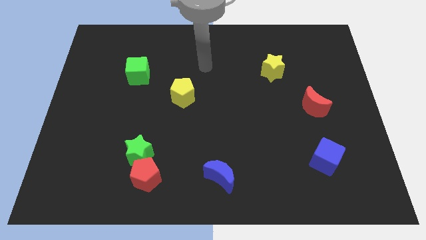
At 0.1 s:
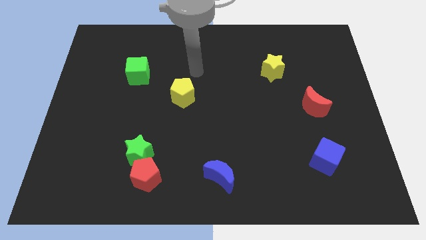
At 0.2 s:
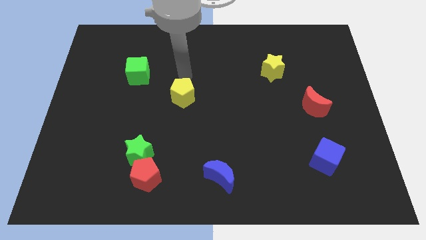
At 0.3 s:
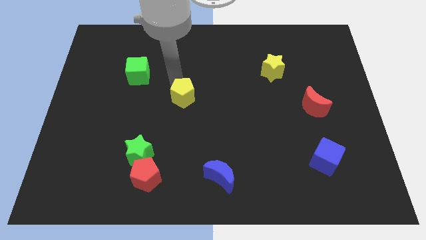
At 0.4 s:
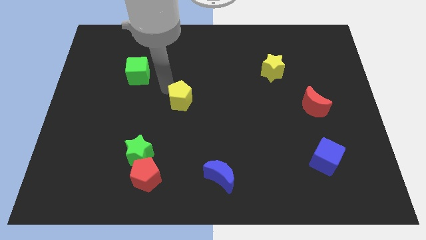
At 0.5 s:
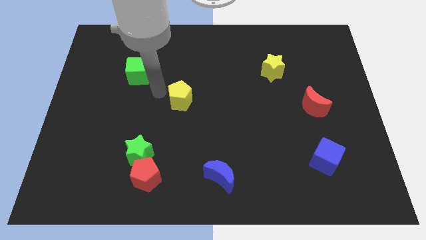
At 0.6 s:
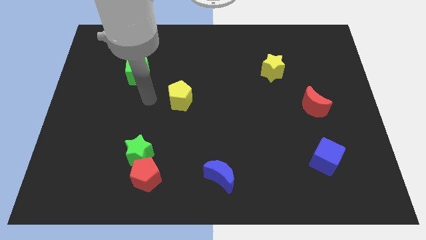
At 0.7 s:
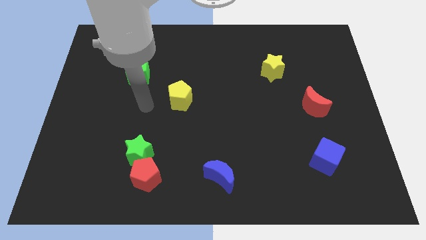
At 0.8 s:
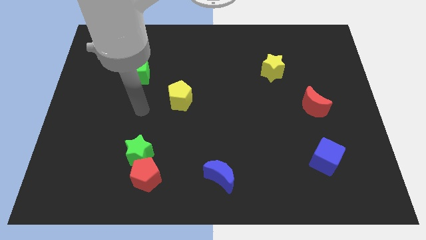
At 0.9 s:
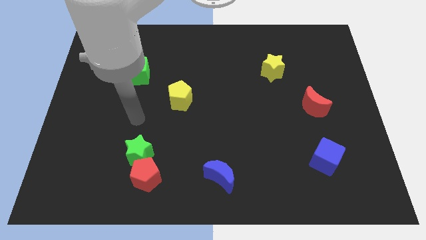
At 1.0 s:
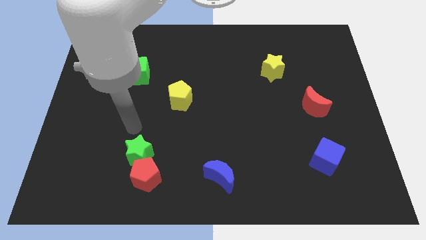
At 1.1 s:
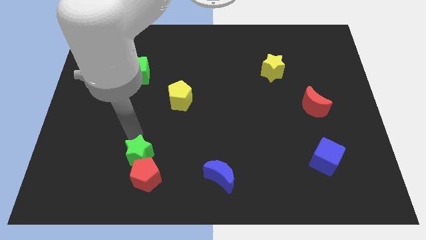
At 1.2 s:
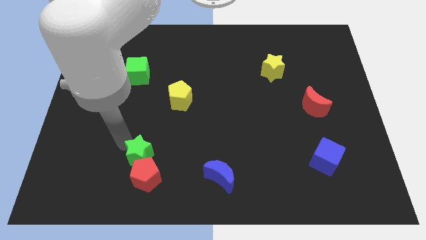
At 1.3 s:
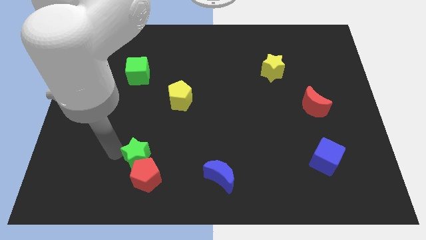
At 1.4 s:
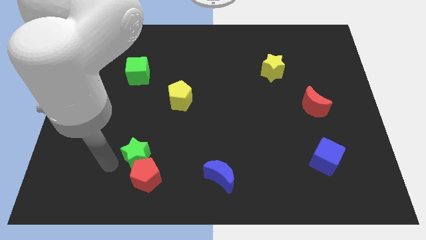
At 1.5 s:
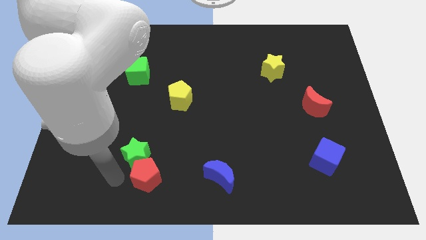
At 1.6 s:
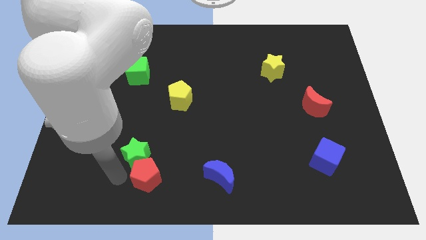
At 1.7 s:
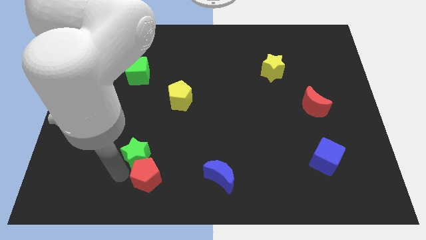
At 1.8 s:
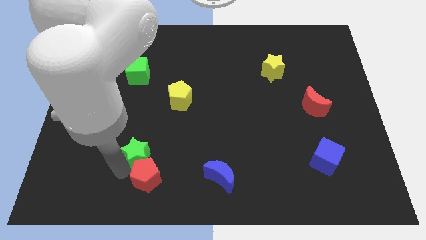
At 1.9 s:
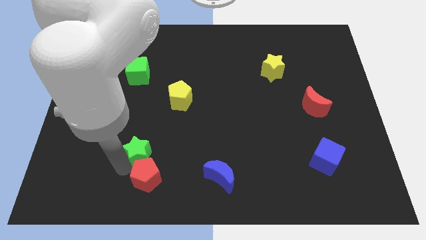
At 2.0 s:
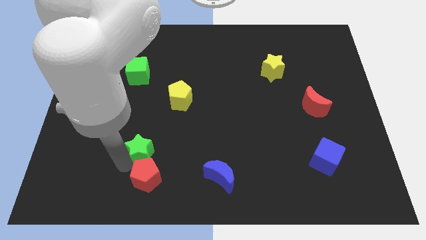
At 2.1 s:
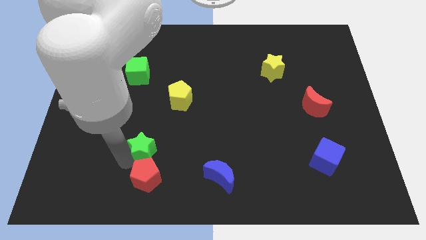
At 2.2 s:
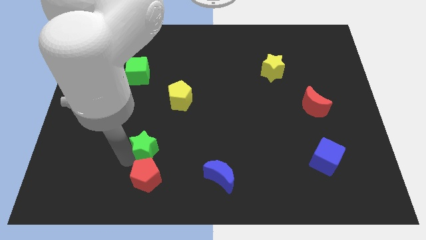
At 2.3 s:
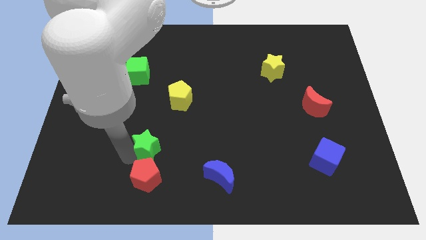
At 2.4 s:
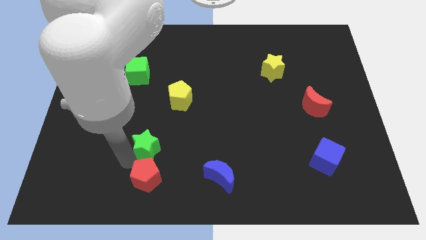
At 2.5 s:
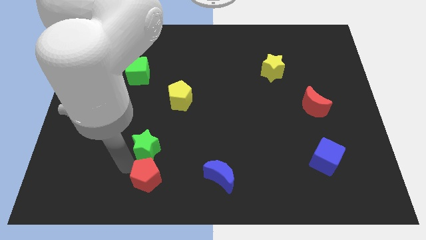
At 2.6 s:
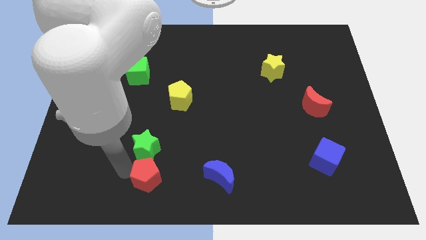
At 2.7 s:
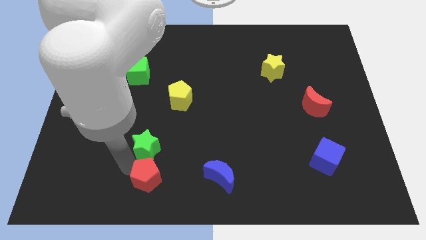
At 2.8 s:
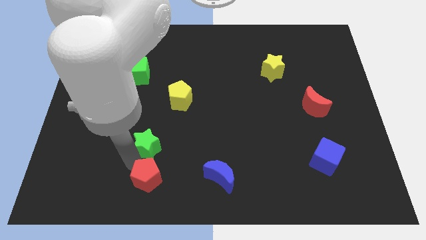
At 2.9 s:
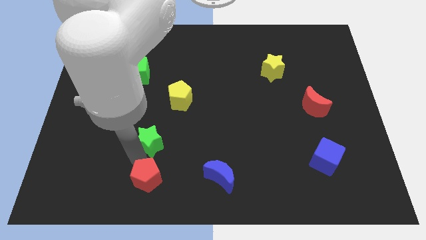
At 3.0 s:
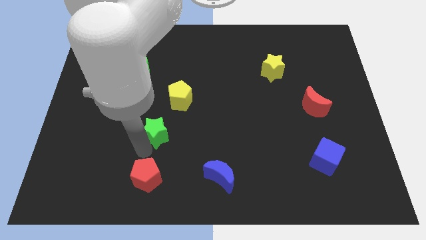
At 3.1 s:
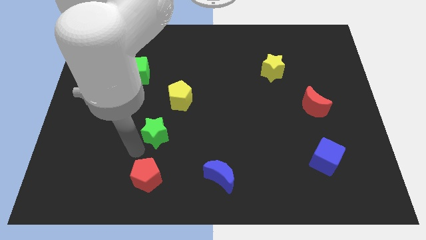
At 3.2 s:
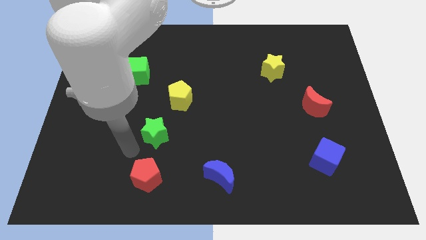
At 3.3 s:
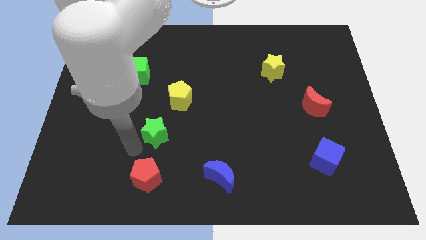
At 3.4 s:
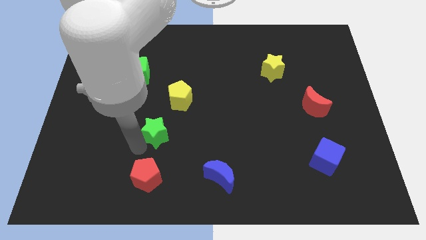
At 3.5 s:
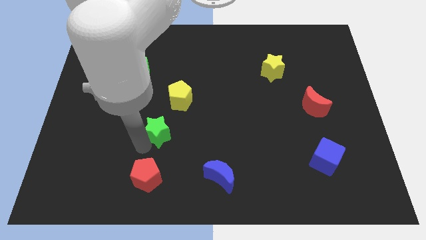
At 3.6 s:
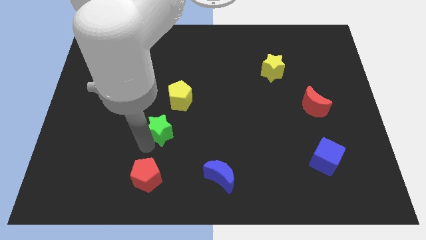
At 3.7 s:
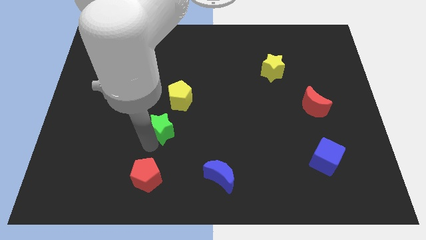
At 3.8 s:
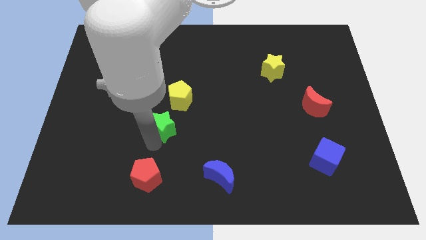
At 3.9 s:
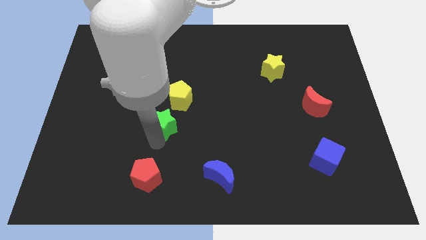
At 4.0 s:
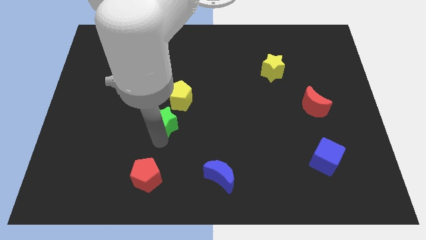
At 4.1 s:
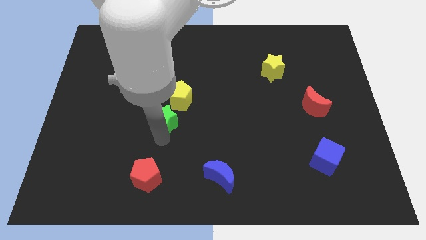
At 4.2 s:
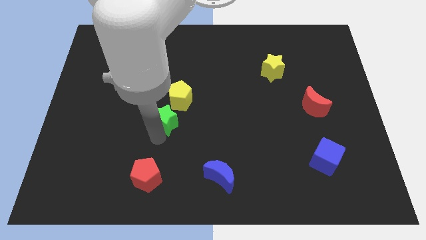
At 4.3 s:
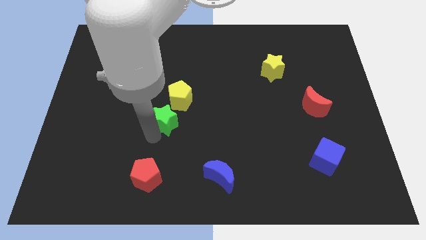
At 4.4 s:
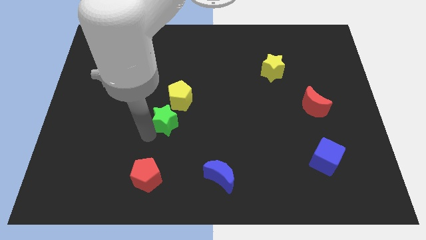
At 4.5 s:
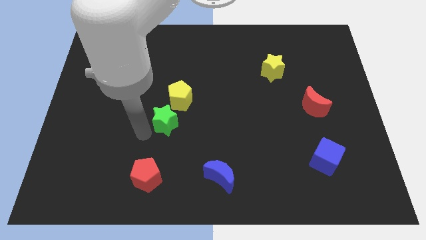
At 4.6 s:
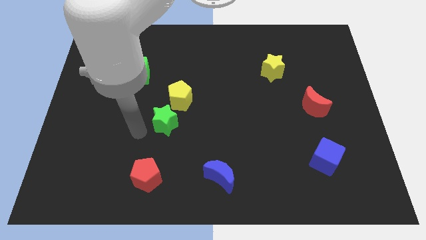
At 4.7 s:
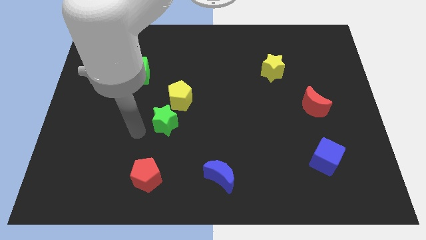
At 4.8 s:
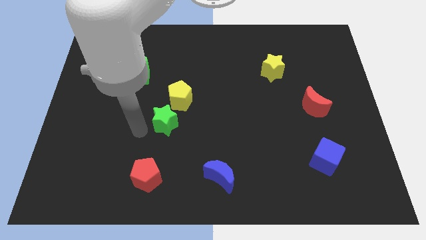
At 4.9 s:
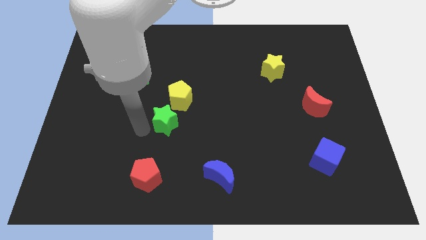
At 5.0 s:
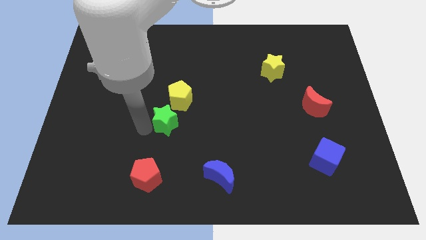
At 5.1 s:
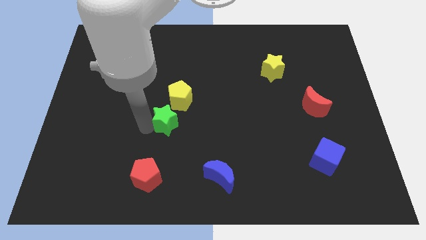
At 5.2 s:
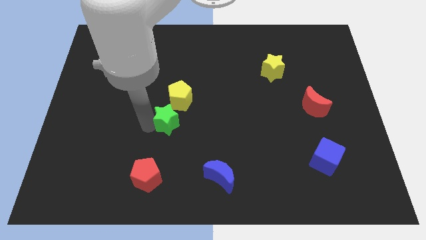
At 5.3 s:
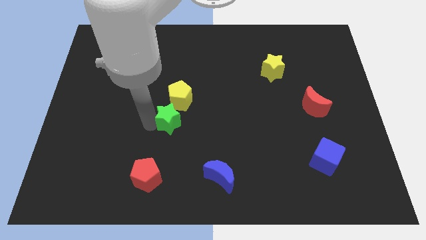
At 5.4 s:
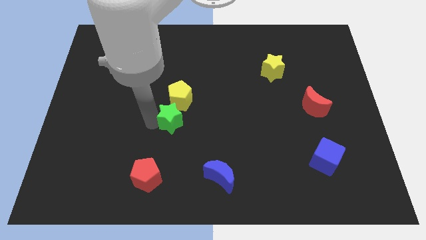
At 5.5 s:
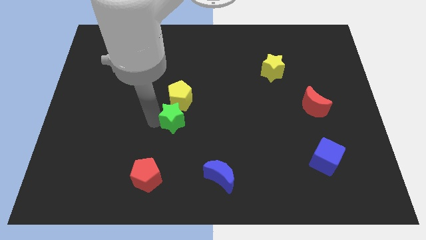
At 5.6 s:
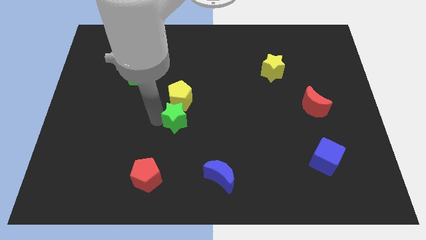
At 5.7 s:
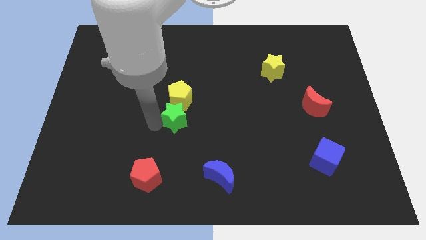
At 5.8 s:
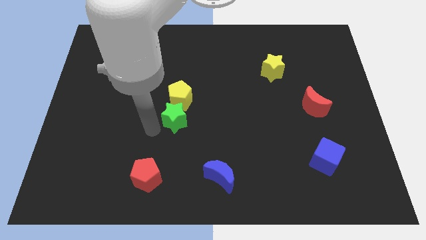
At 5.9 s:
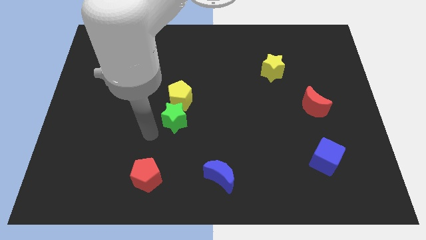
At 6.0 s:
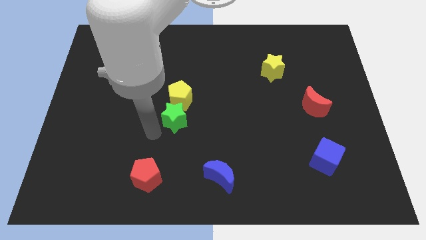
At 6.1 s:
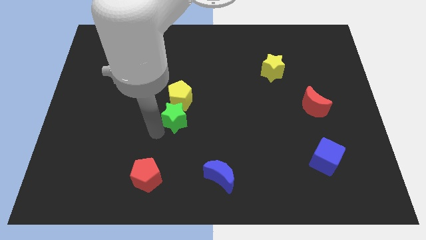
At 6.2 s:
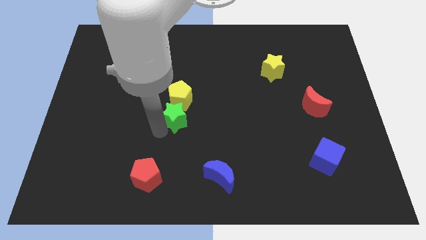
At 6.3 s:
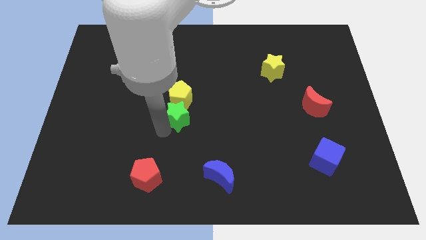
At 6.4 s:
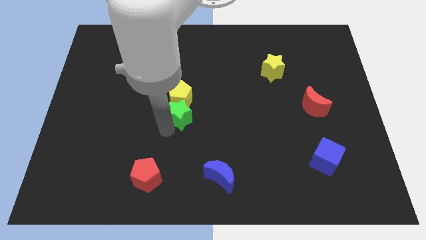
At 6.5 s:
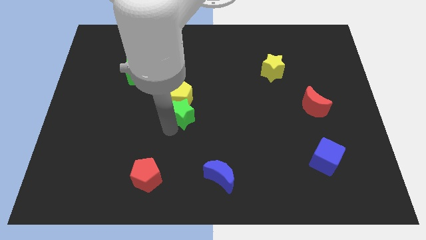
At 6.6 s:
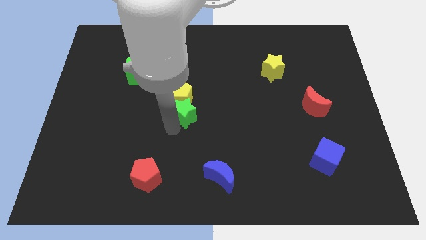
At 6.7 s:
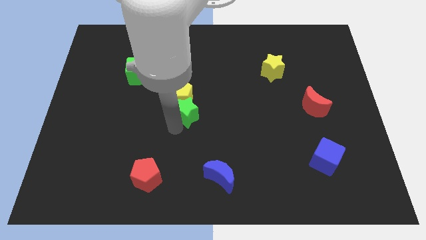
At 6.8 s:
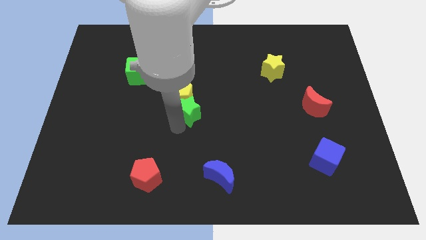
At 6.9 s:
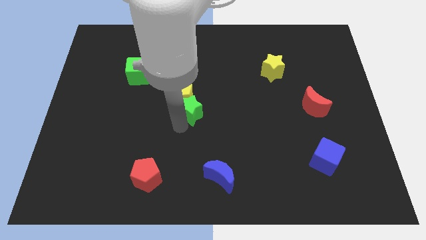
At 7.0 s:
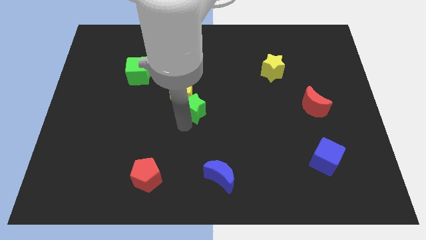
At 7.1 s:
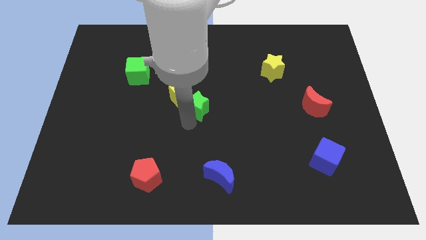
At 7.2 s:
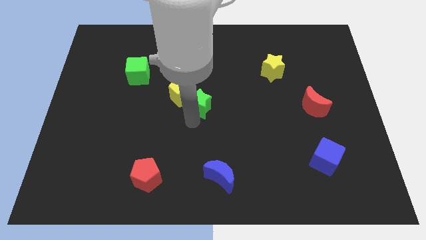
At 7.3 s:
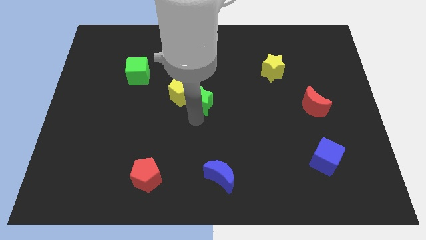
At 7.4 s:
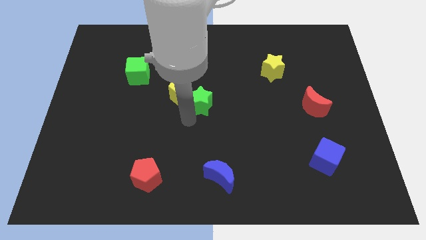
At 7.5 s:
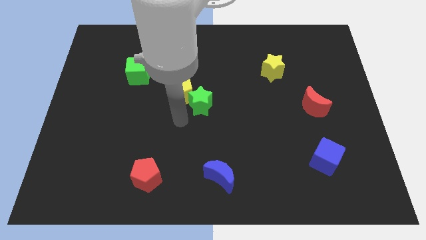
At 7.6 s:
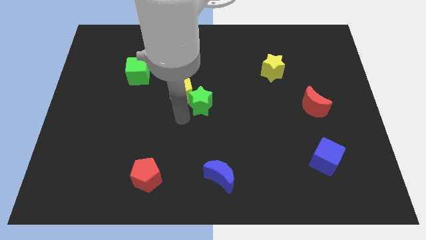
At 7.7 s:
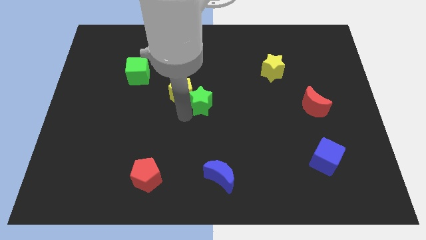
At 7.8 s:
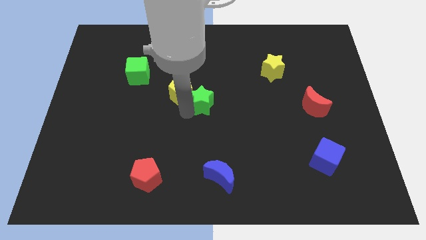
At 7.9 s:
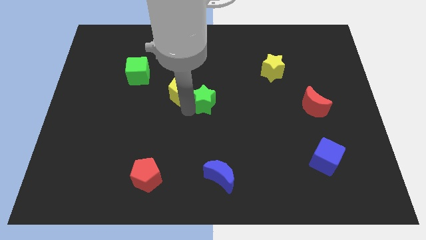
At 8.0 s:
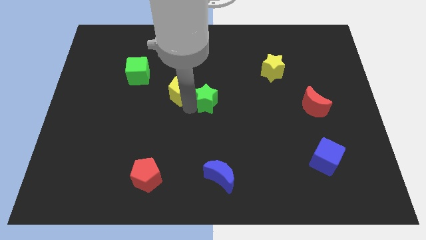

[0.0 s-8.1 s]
push the green star upwards and to the right
